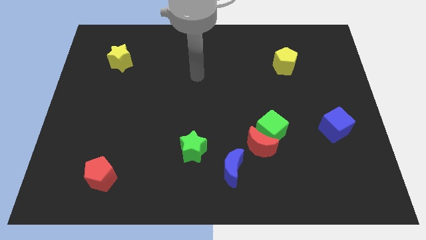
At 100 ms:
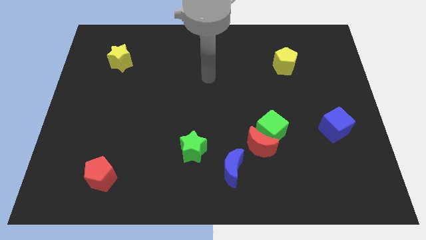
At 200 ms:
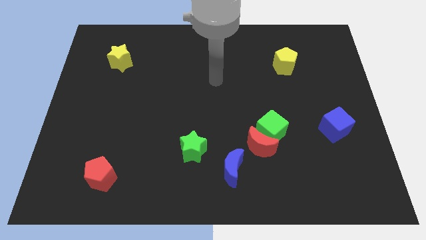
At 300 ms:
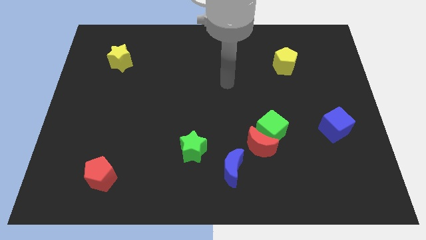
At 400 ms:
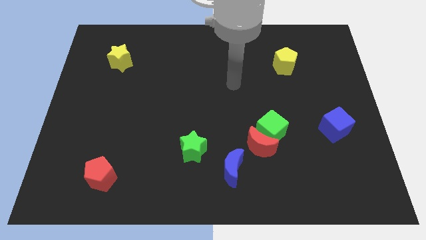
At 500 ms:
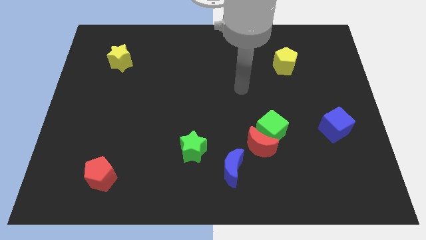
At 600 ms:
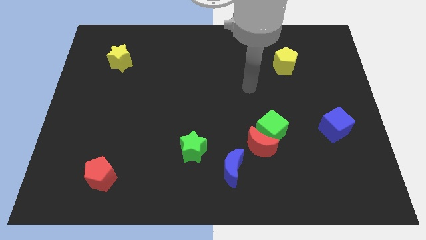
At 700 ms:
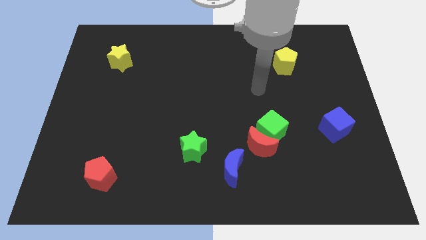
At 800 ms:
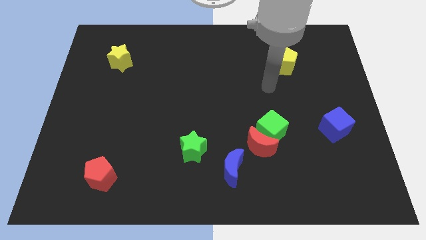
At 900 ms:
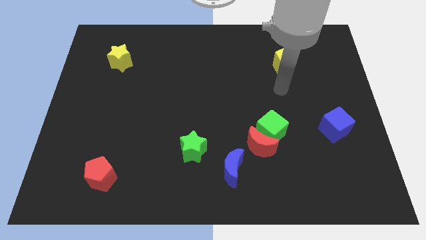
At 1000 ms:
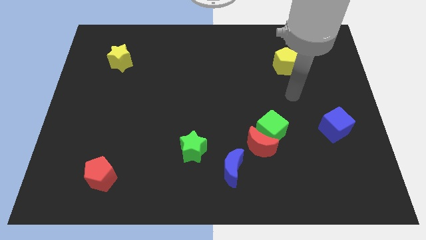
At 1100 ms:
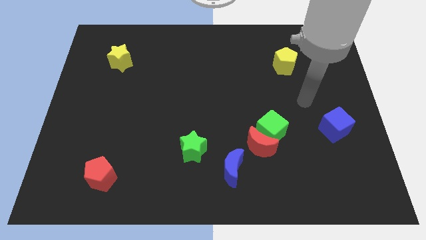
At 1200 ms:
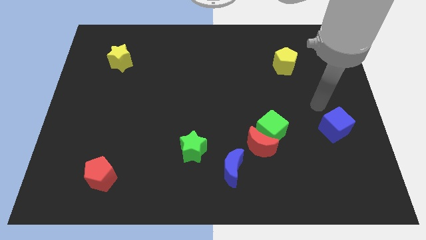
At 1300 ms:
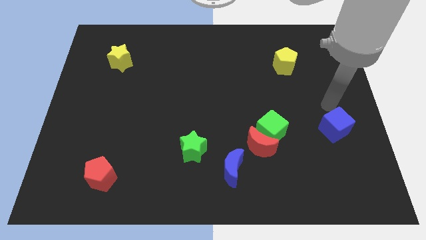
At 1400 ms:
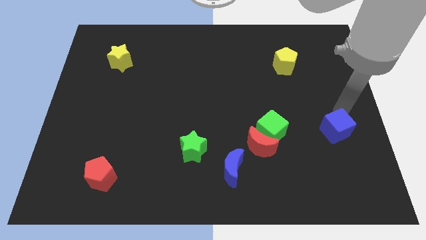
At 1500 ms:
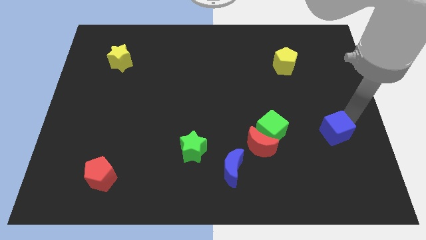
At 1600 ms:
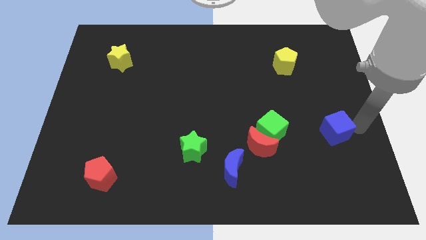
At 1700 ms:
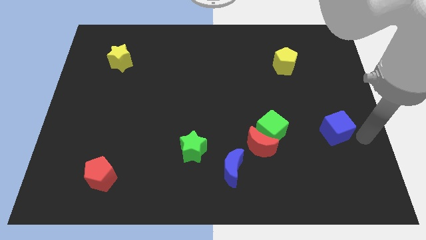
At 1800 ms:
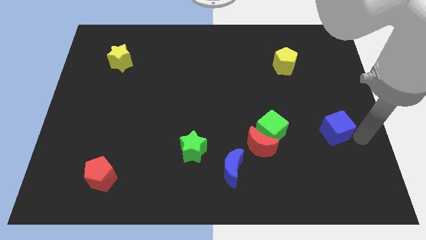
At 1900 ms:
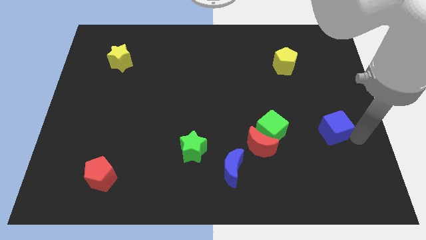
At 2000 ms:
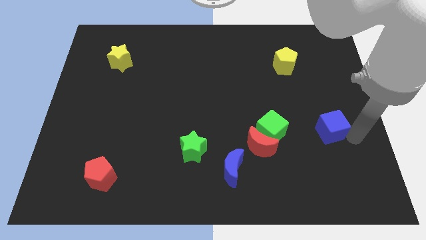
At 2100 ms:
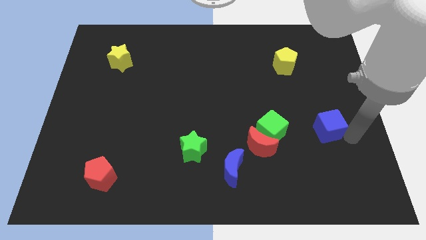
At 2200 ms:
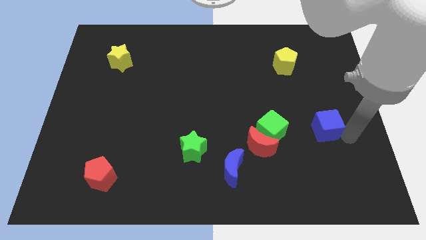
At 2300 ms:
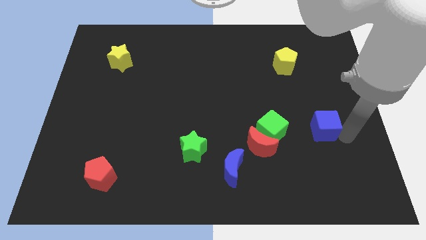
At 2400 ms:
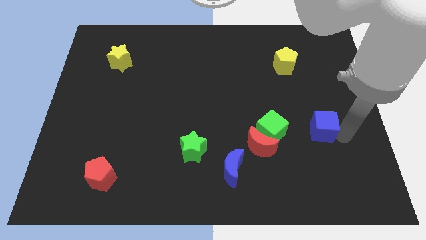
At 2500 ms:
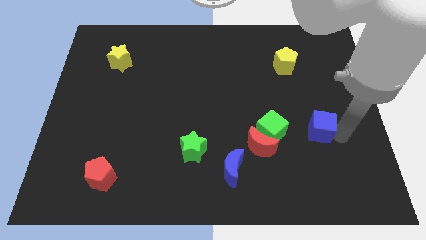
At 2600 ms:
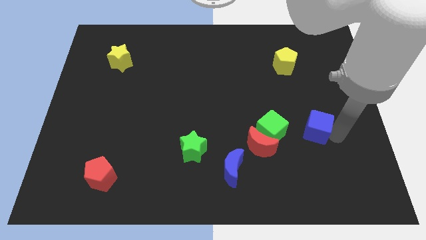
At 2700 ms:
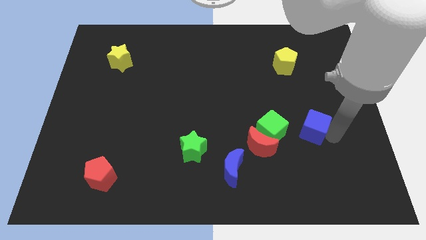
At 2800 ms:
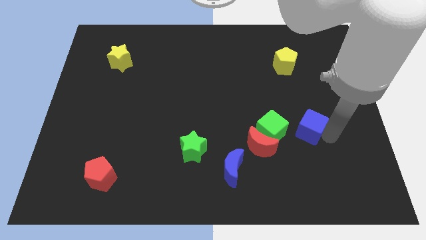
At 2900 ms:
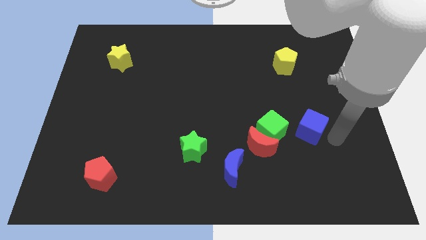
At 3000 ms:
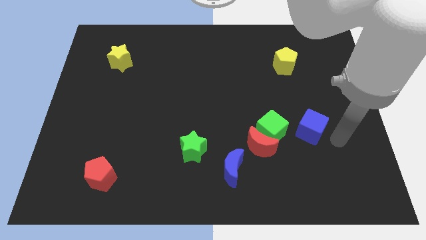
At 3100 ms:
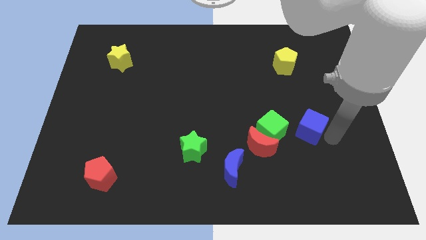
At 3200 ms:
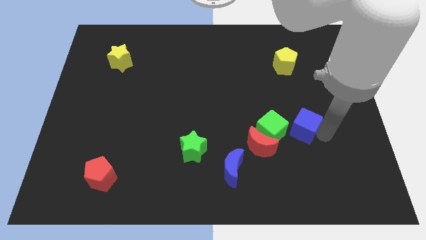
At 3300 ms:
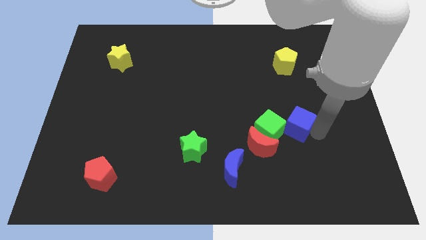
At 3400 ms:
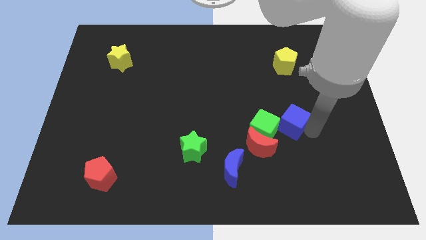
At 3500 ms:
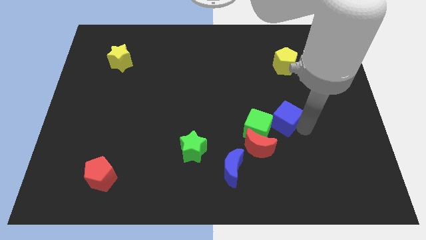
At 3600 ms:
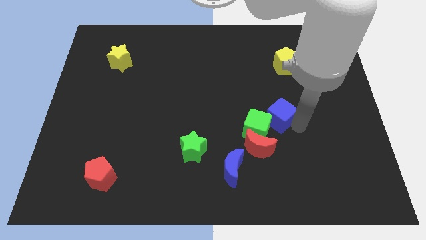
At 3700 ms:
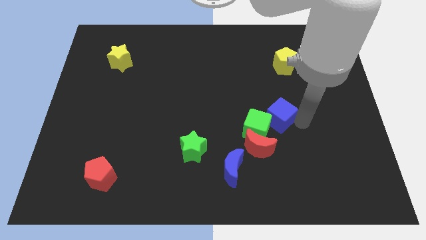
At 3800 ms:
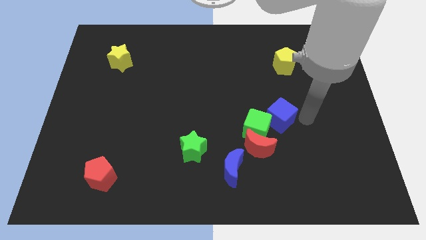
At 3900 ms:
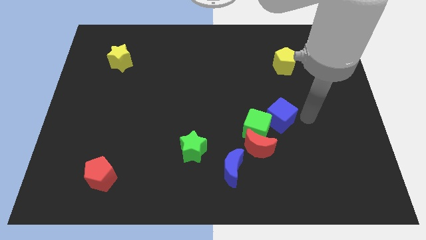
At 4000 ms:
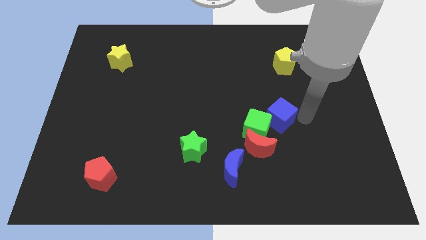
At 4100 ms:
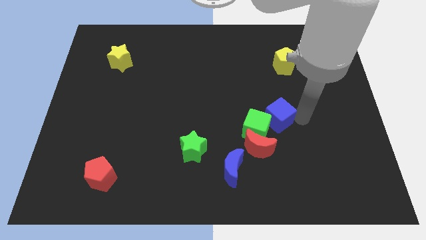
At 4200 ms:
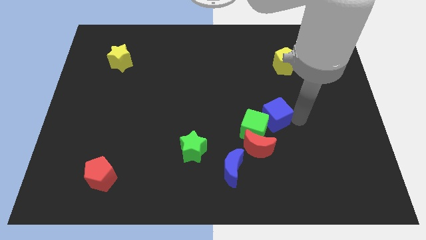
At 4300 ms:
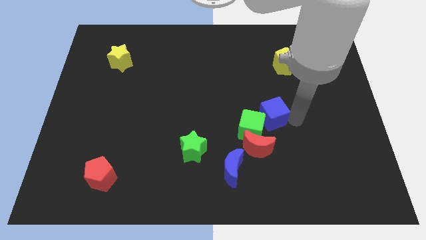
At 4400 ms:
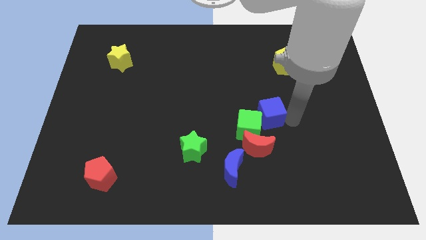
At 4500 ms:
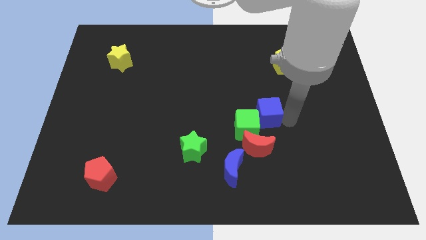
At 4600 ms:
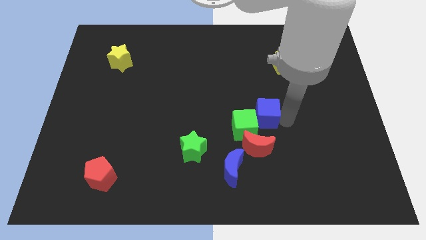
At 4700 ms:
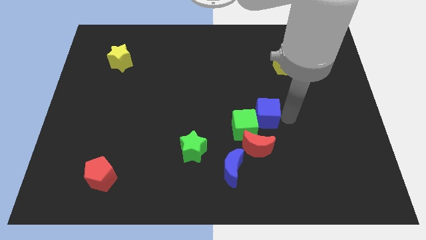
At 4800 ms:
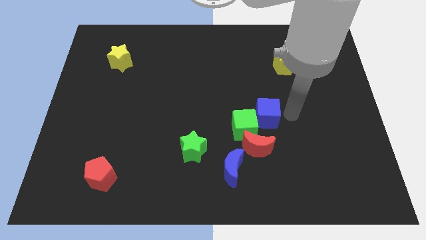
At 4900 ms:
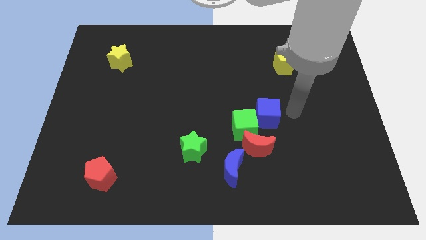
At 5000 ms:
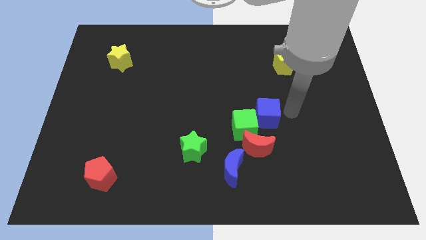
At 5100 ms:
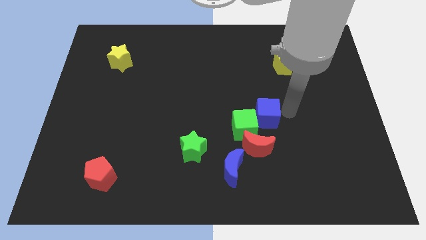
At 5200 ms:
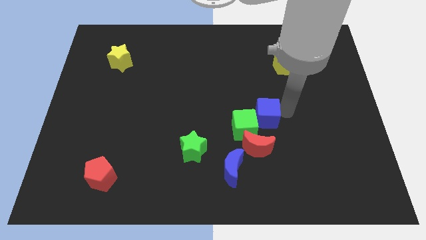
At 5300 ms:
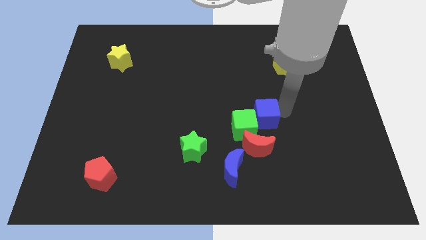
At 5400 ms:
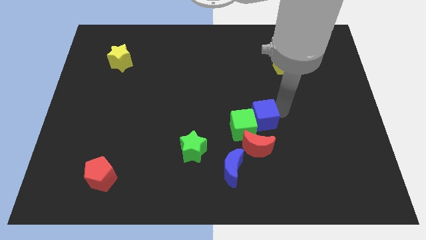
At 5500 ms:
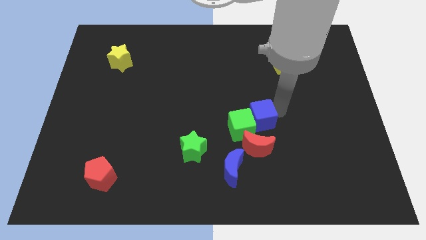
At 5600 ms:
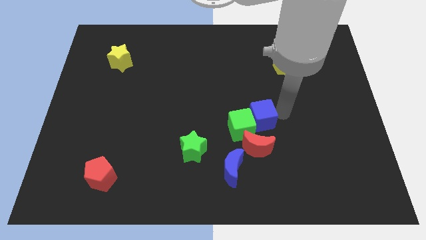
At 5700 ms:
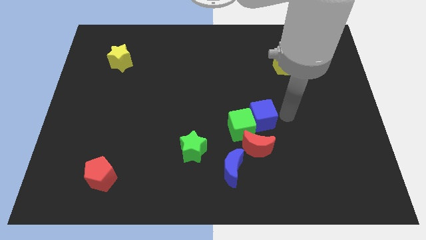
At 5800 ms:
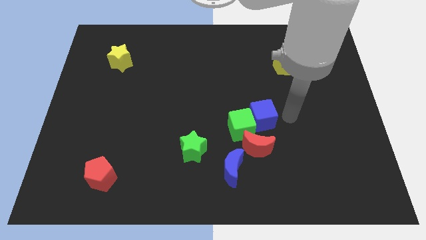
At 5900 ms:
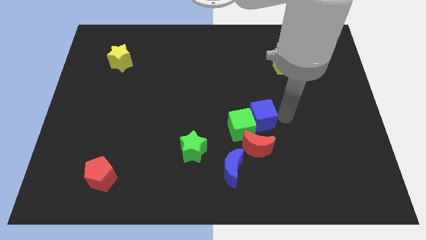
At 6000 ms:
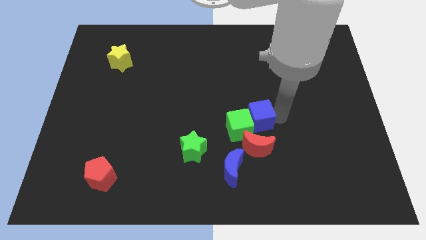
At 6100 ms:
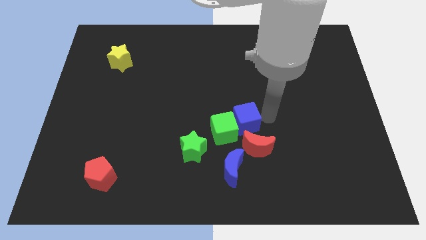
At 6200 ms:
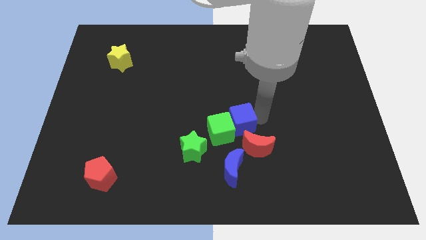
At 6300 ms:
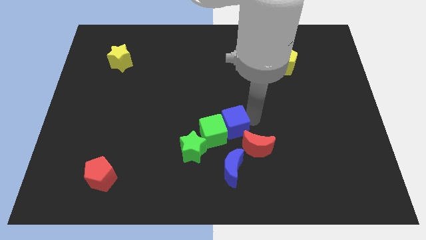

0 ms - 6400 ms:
put the blue cube to the top right side of the green star

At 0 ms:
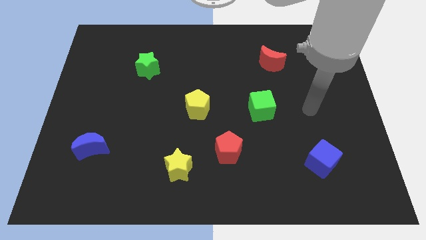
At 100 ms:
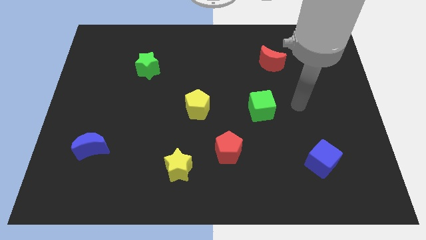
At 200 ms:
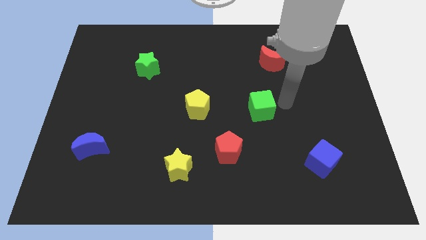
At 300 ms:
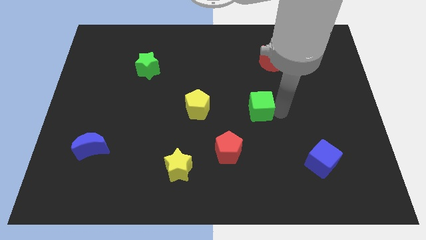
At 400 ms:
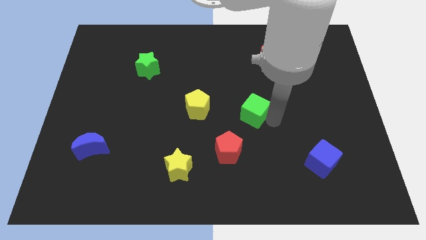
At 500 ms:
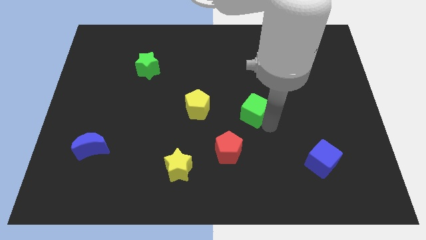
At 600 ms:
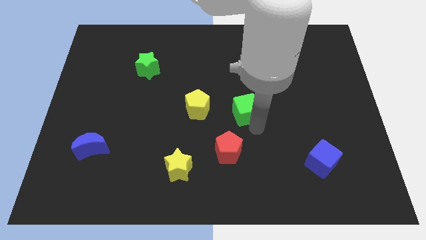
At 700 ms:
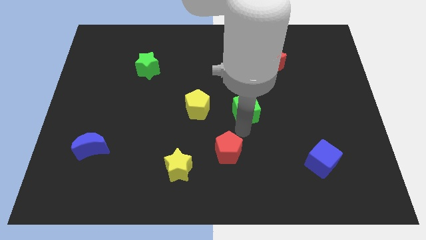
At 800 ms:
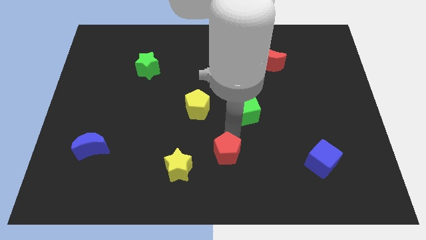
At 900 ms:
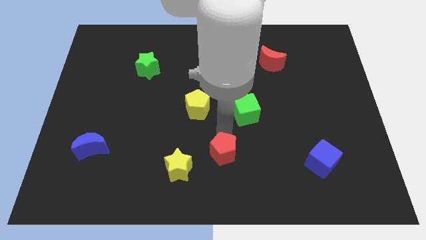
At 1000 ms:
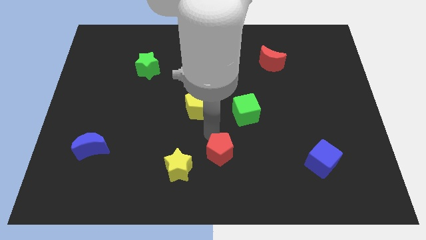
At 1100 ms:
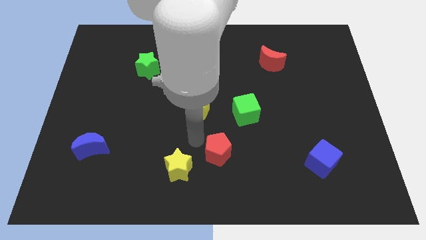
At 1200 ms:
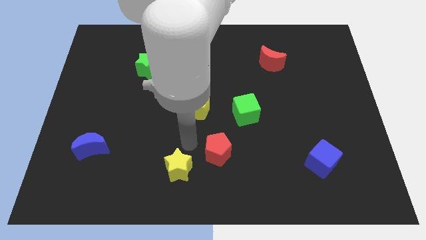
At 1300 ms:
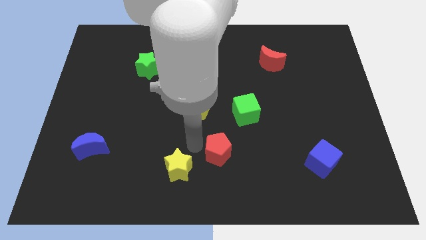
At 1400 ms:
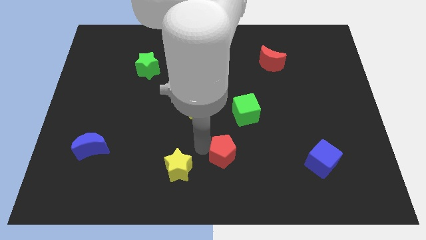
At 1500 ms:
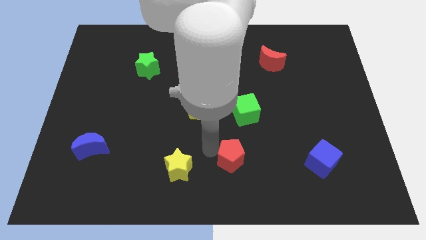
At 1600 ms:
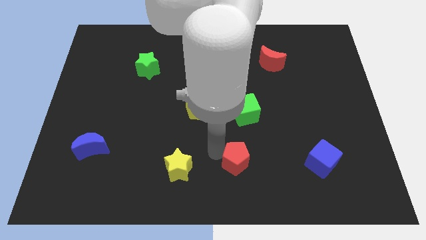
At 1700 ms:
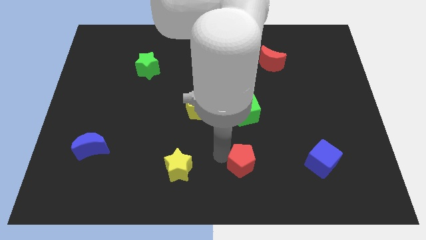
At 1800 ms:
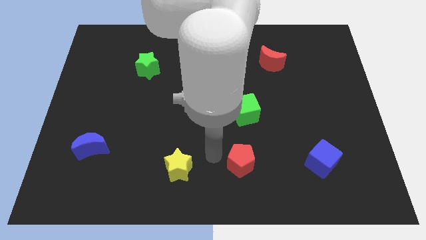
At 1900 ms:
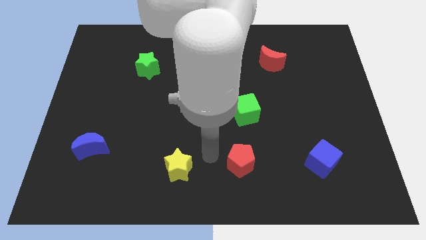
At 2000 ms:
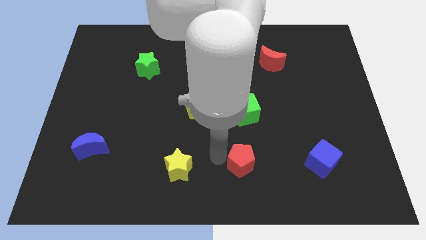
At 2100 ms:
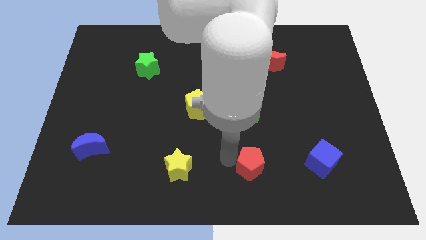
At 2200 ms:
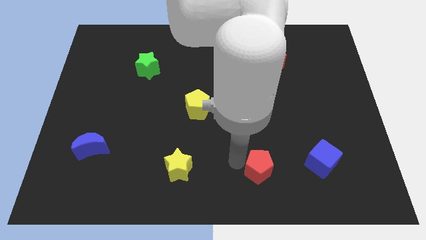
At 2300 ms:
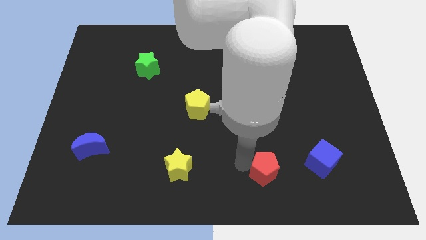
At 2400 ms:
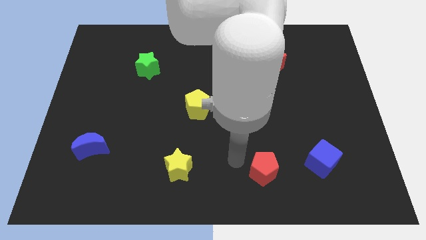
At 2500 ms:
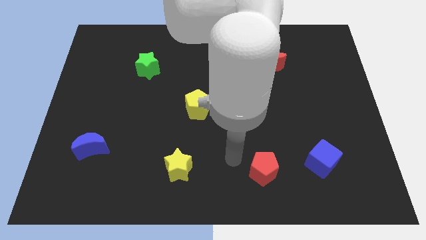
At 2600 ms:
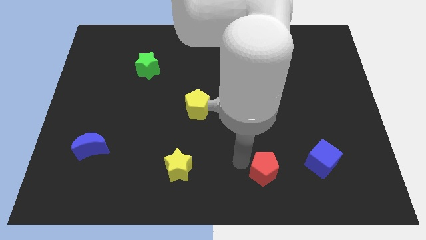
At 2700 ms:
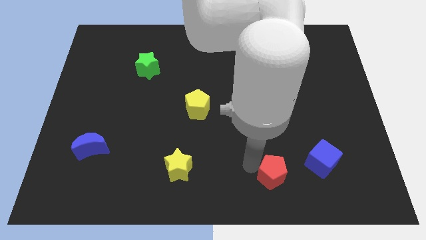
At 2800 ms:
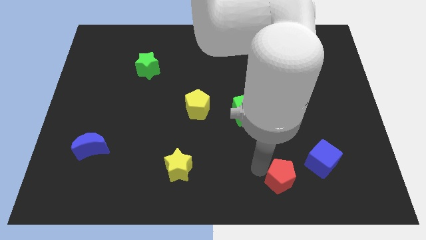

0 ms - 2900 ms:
put the red pentagon to the bottom left side of the blue cube
